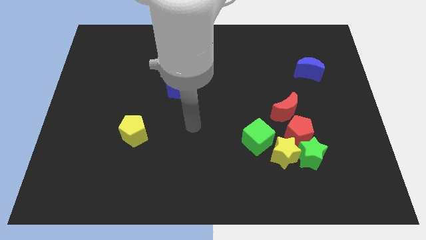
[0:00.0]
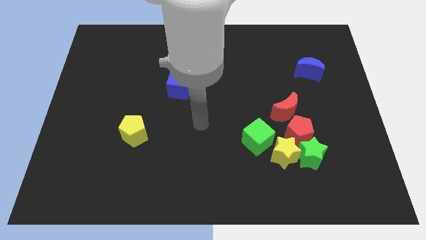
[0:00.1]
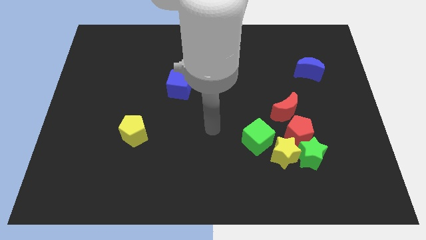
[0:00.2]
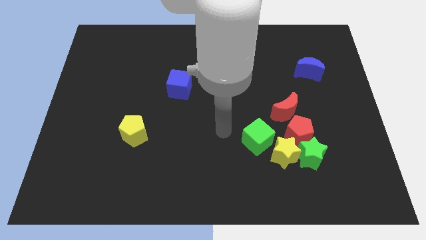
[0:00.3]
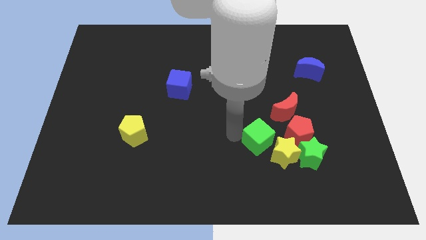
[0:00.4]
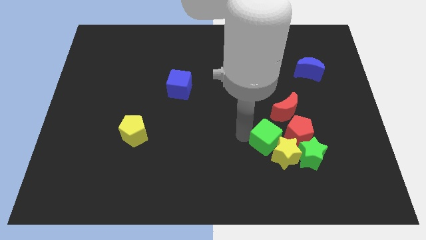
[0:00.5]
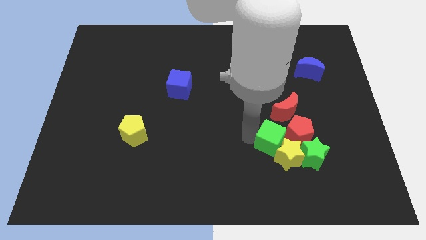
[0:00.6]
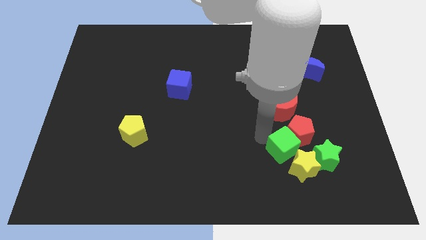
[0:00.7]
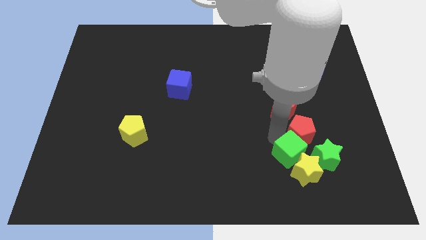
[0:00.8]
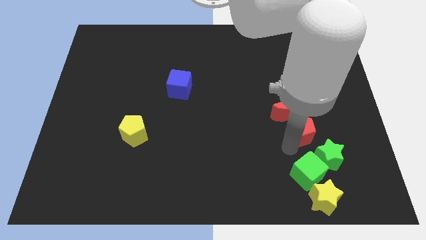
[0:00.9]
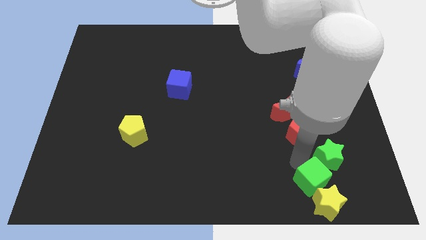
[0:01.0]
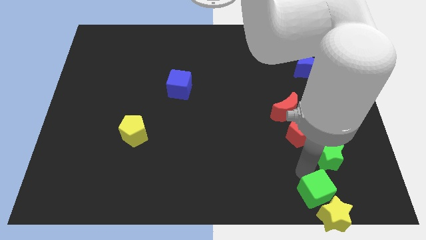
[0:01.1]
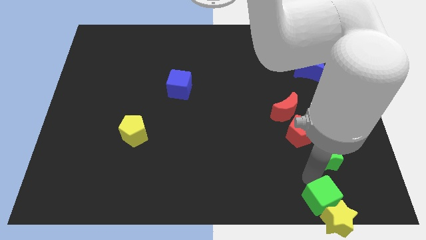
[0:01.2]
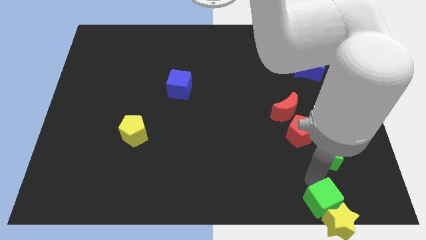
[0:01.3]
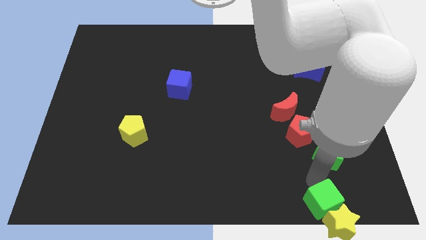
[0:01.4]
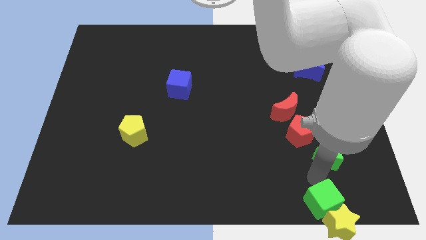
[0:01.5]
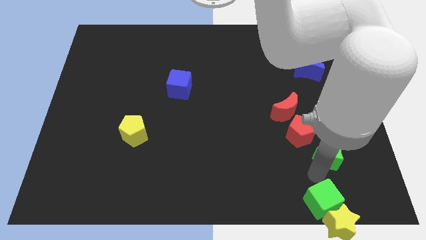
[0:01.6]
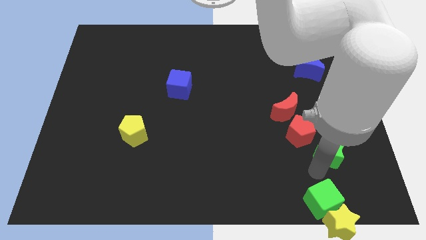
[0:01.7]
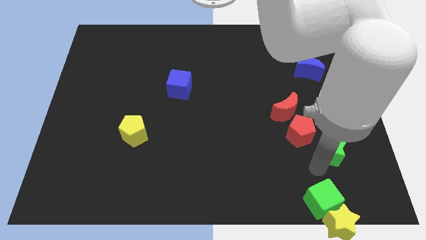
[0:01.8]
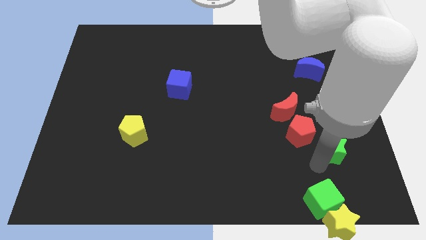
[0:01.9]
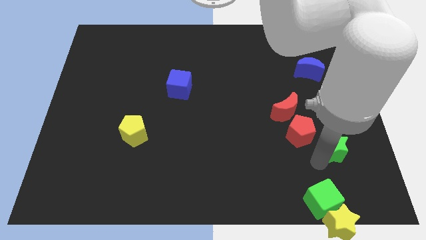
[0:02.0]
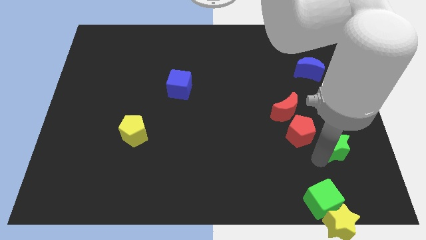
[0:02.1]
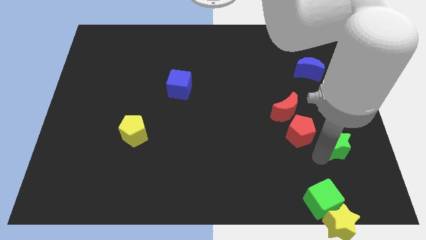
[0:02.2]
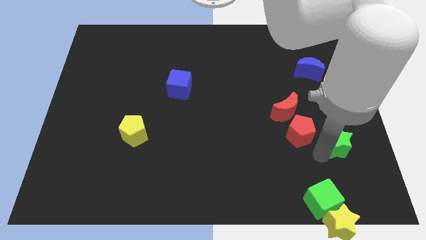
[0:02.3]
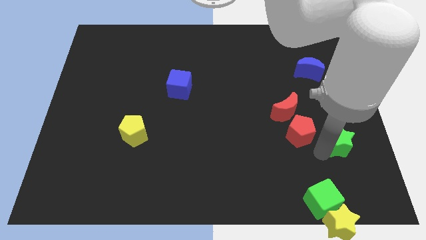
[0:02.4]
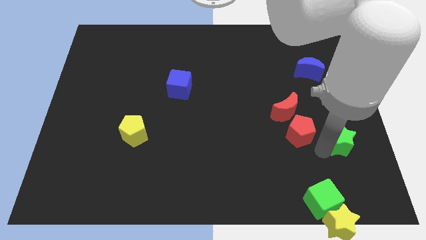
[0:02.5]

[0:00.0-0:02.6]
move the green star away from the yellow star and red pentagon

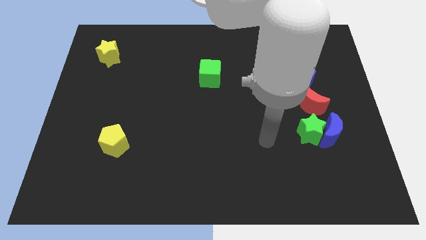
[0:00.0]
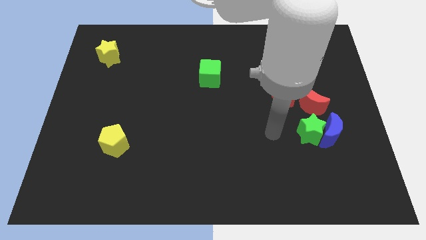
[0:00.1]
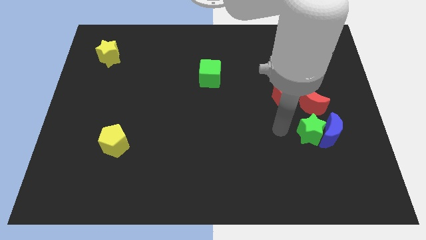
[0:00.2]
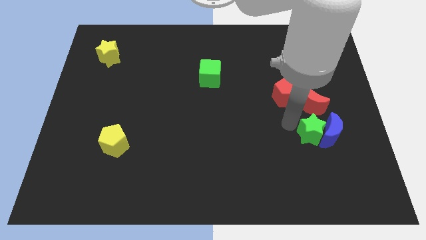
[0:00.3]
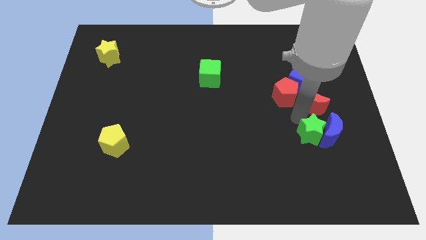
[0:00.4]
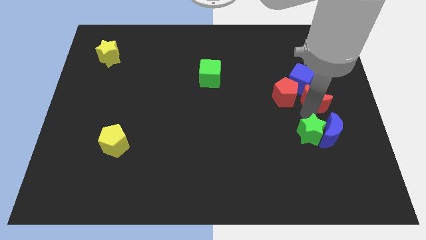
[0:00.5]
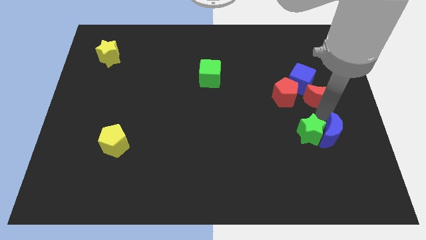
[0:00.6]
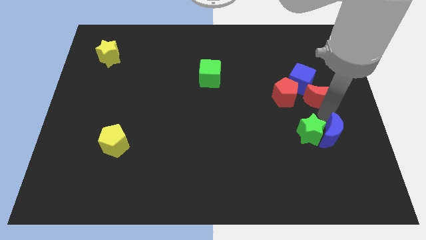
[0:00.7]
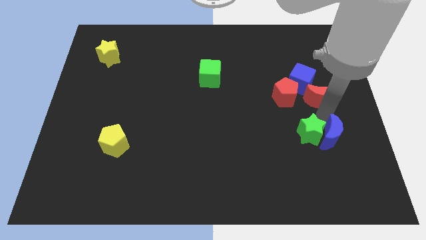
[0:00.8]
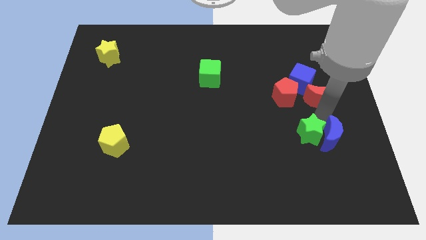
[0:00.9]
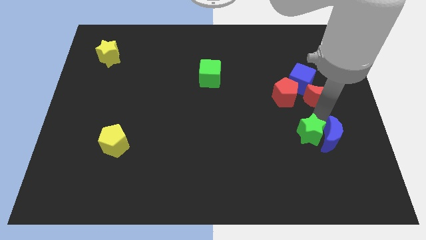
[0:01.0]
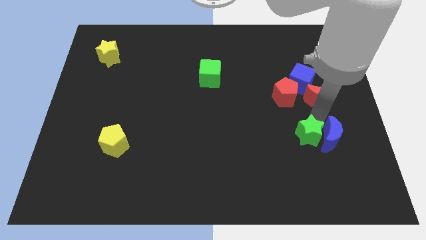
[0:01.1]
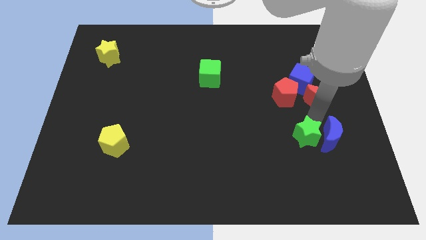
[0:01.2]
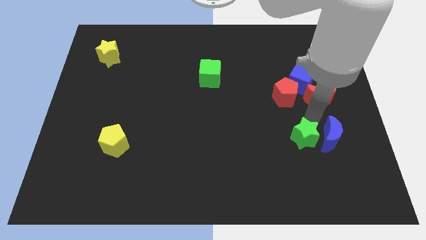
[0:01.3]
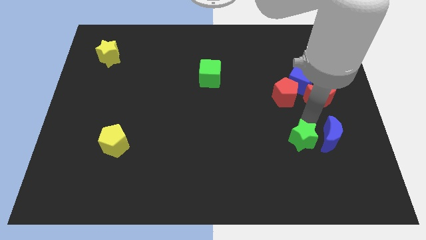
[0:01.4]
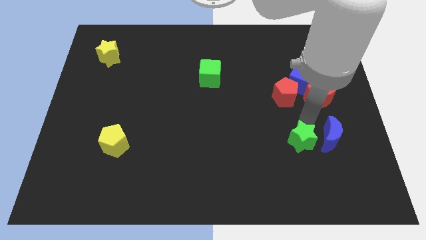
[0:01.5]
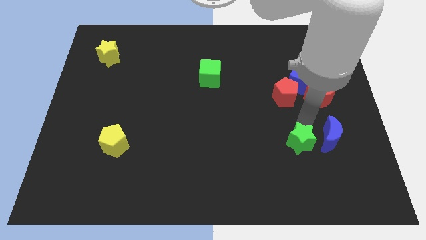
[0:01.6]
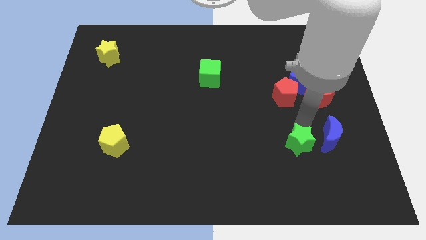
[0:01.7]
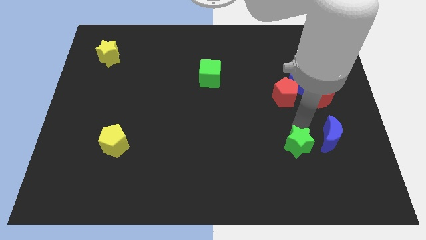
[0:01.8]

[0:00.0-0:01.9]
pull the green star apart from the blue moon and red moon

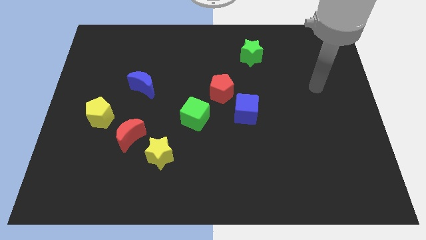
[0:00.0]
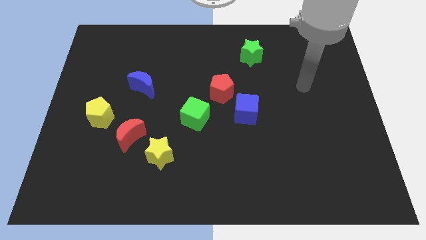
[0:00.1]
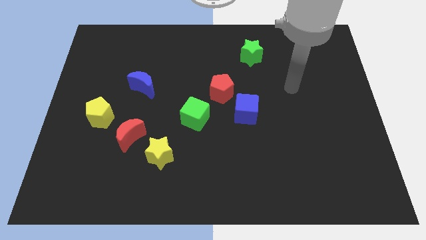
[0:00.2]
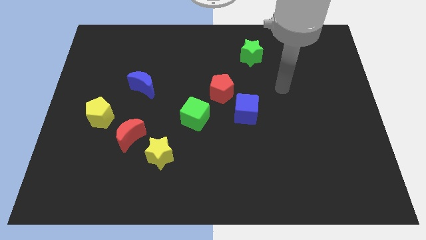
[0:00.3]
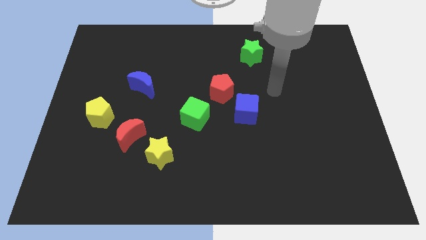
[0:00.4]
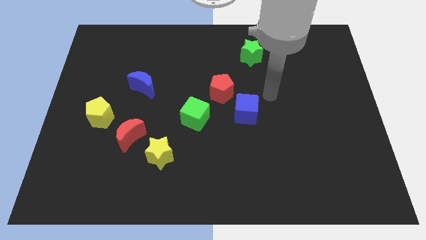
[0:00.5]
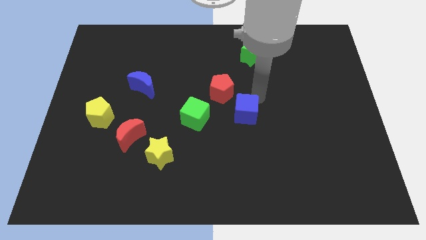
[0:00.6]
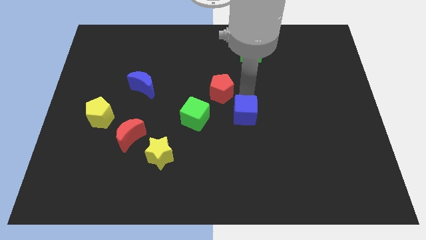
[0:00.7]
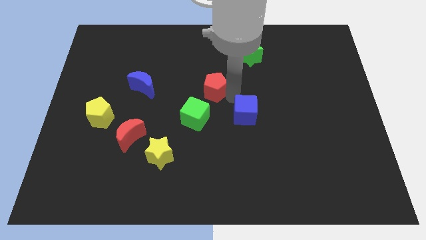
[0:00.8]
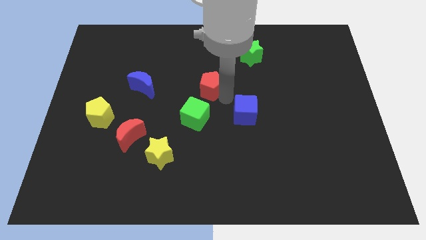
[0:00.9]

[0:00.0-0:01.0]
separate the blue cube from the red pentagon

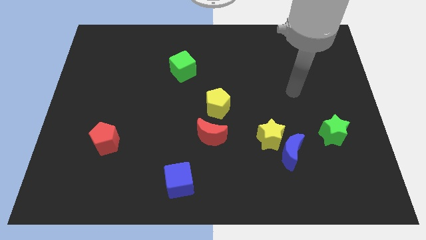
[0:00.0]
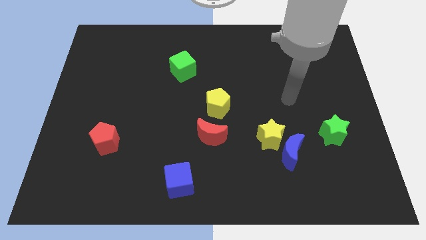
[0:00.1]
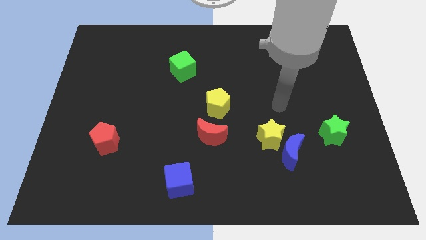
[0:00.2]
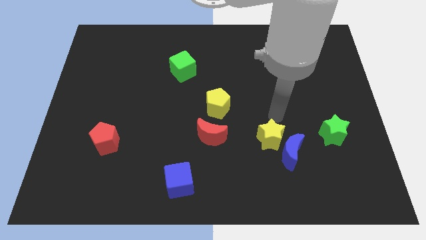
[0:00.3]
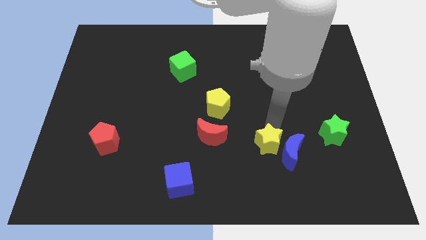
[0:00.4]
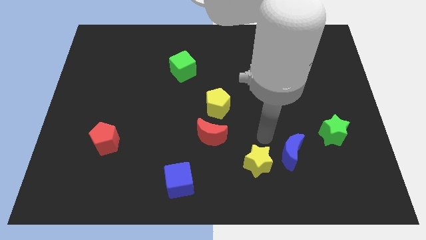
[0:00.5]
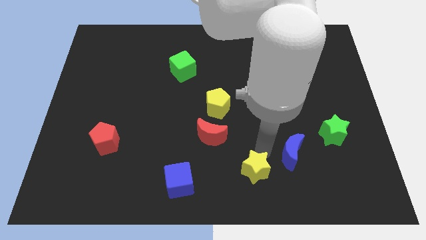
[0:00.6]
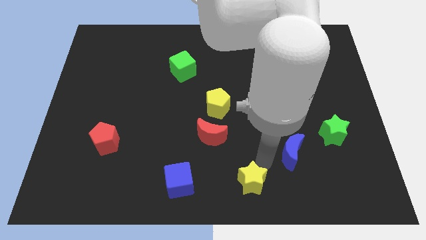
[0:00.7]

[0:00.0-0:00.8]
separate the blue moon from the yellow star

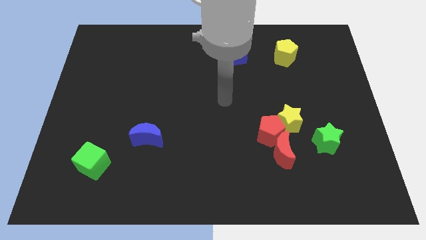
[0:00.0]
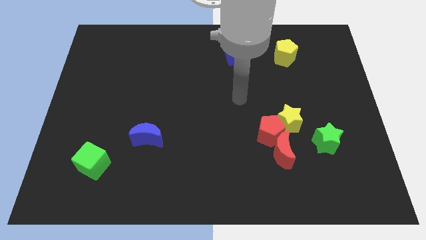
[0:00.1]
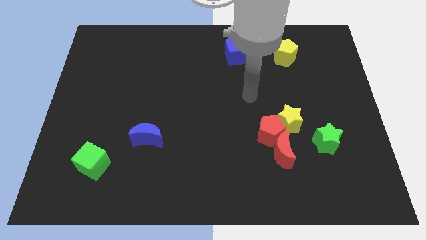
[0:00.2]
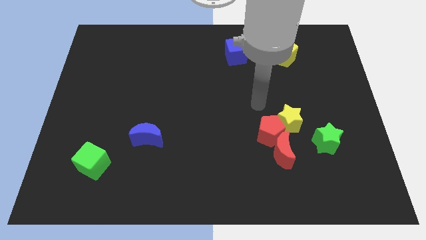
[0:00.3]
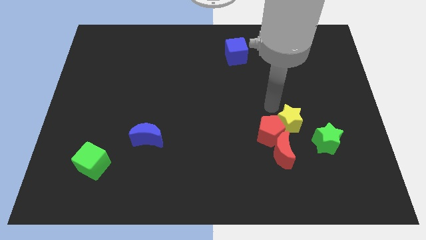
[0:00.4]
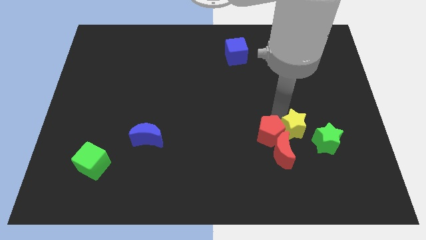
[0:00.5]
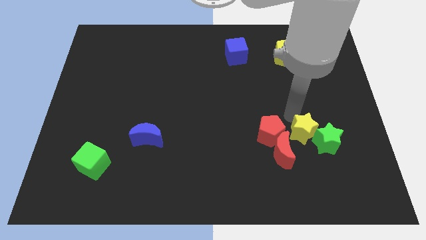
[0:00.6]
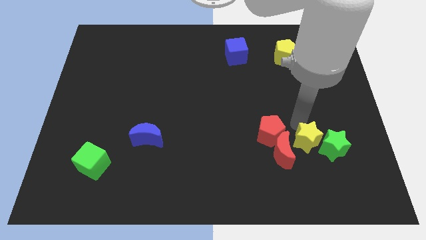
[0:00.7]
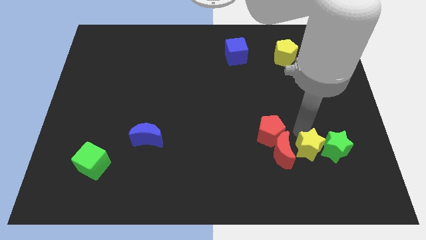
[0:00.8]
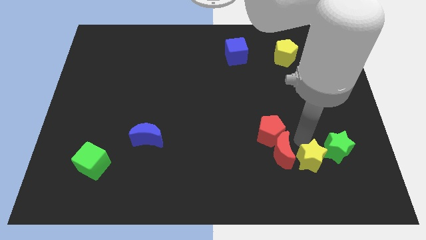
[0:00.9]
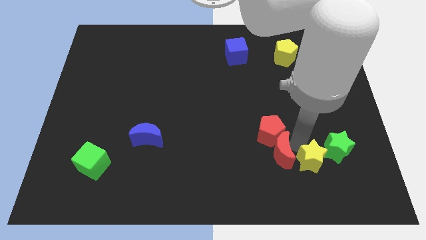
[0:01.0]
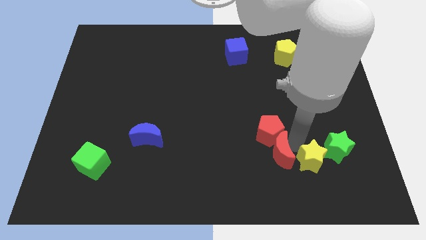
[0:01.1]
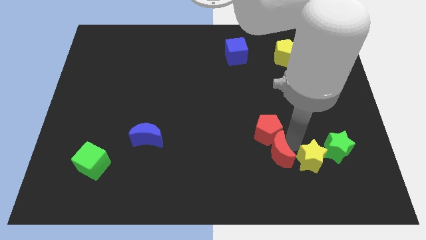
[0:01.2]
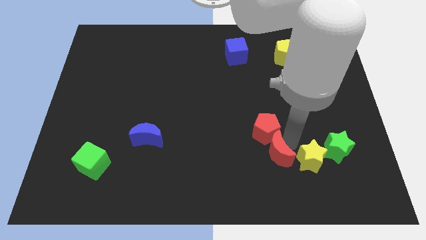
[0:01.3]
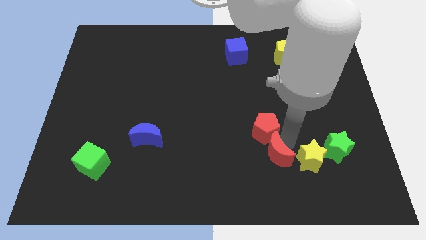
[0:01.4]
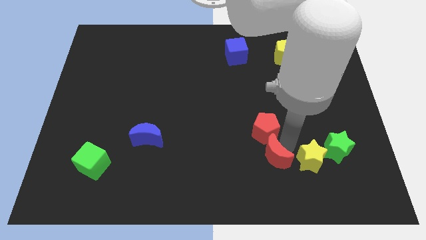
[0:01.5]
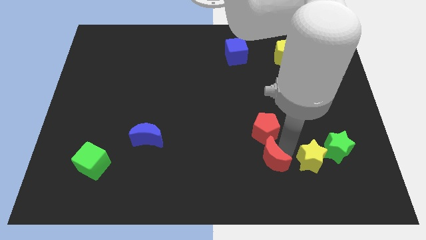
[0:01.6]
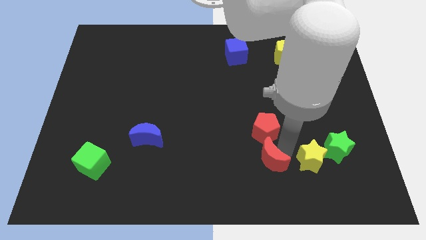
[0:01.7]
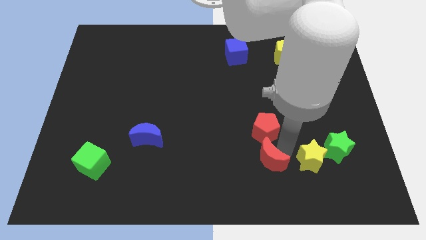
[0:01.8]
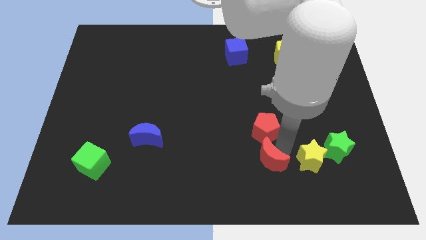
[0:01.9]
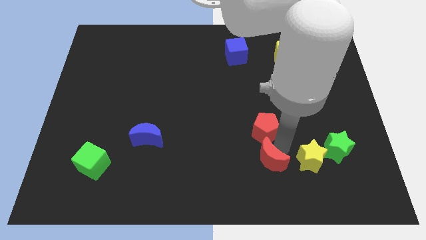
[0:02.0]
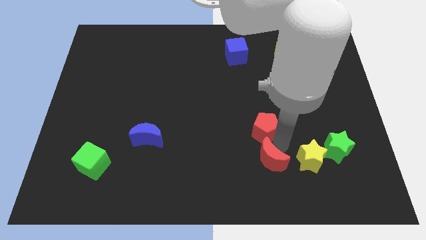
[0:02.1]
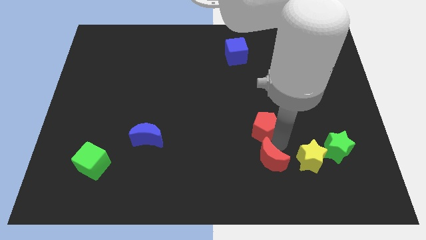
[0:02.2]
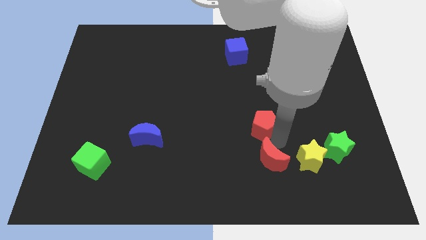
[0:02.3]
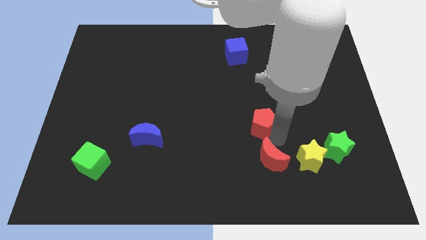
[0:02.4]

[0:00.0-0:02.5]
move the red pentagon away from the yellow star and red moon

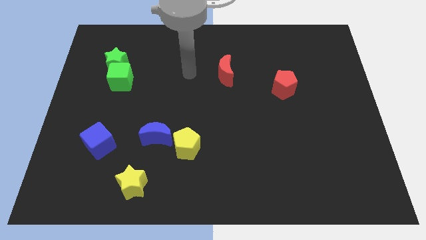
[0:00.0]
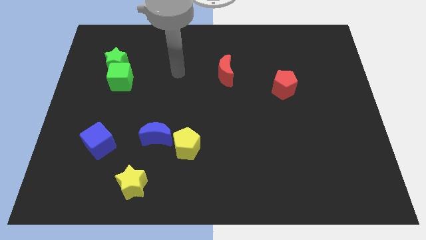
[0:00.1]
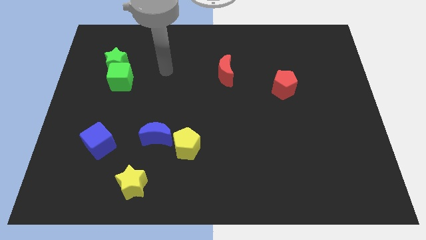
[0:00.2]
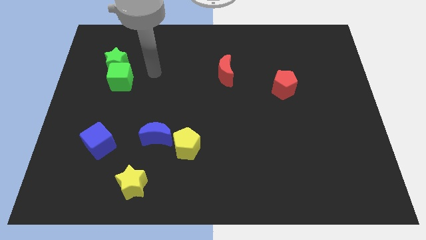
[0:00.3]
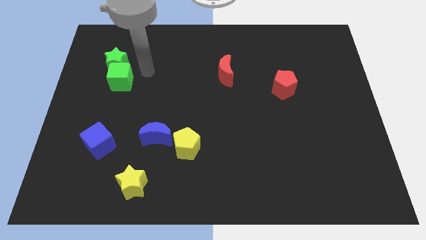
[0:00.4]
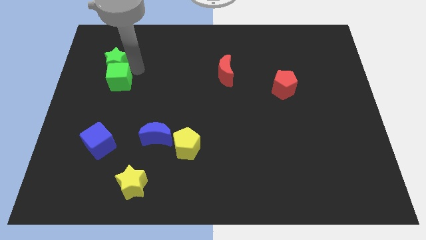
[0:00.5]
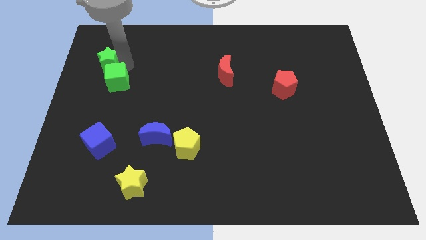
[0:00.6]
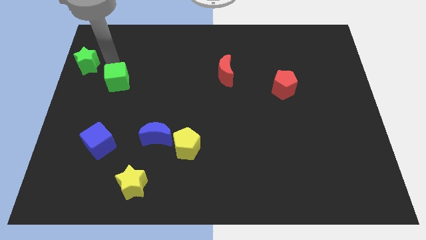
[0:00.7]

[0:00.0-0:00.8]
move the green cube away from the green star
